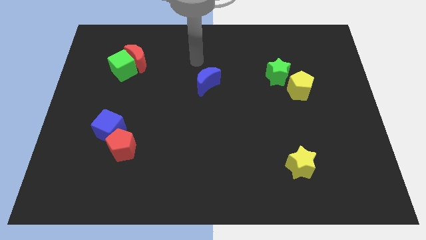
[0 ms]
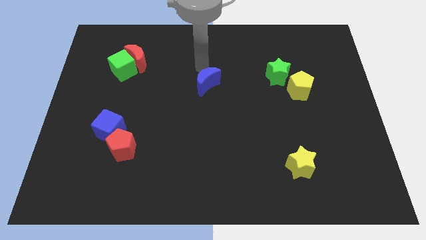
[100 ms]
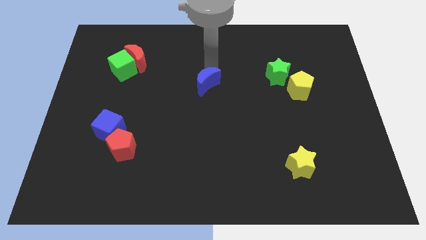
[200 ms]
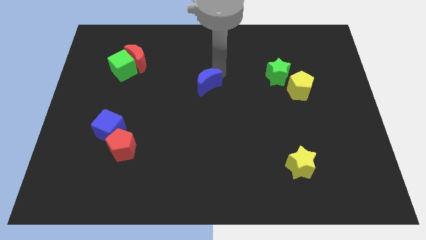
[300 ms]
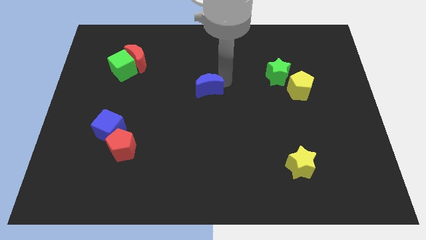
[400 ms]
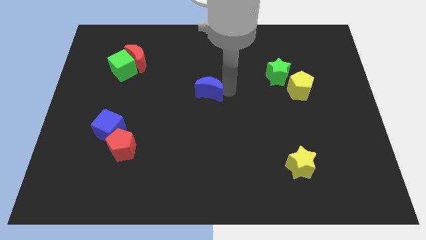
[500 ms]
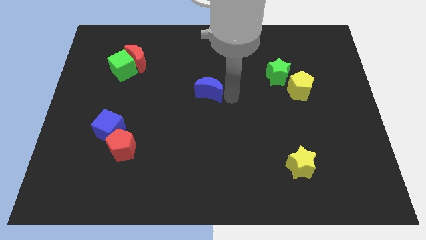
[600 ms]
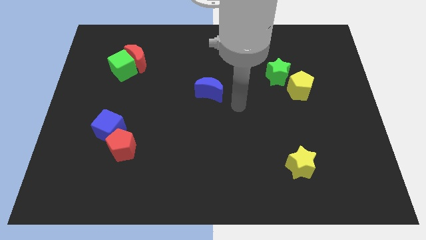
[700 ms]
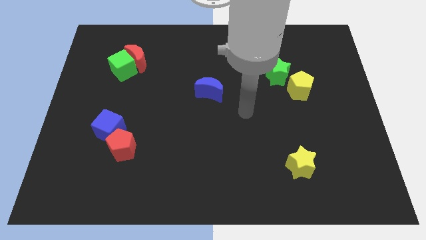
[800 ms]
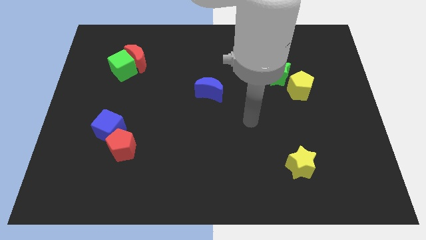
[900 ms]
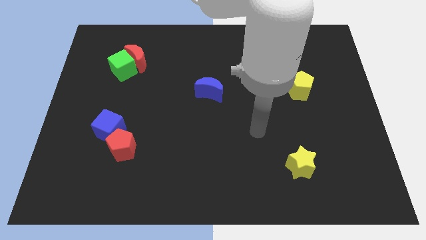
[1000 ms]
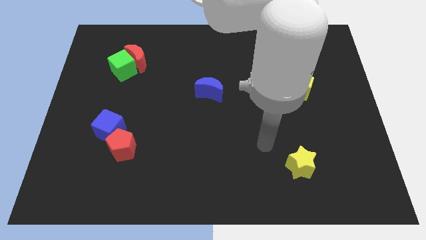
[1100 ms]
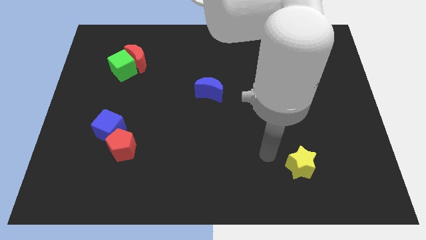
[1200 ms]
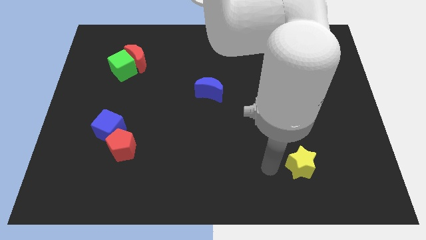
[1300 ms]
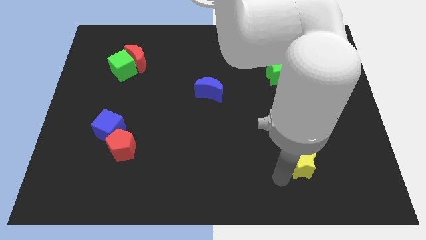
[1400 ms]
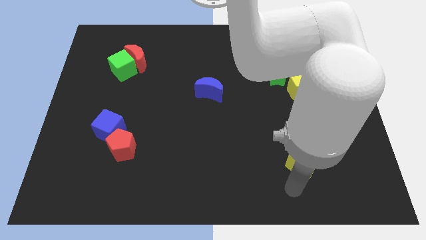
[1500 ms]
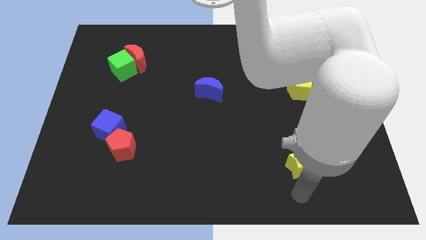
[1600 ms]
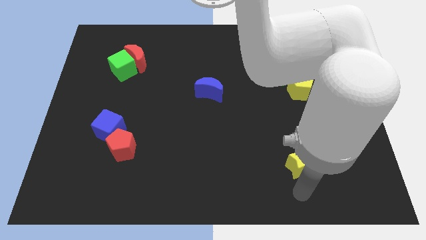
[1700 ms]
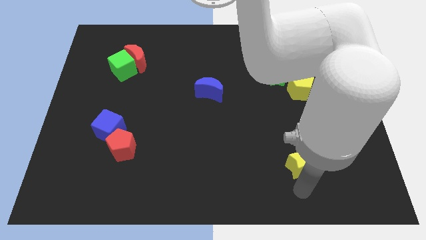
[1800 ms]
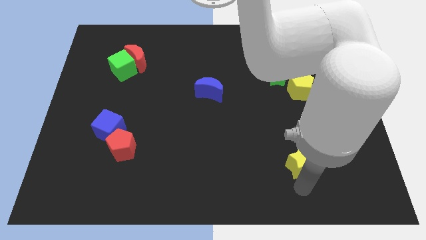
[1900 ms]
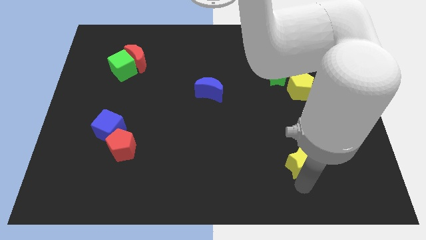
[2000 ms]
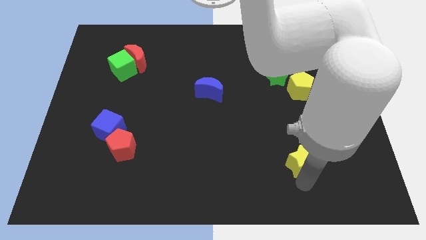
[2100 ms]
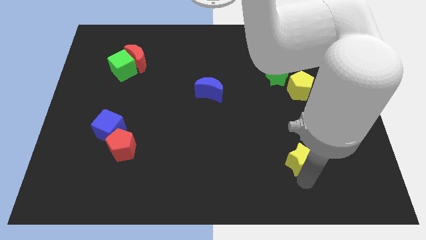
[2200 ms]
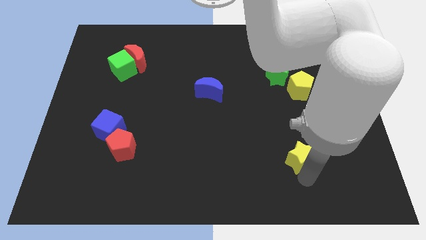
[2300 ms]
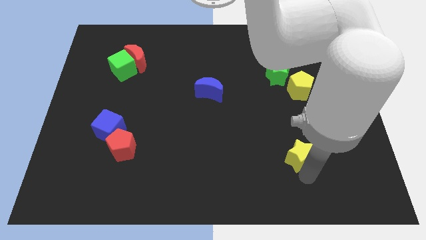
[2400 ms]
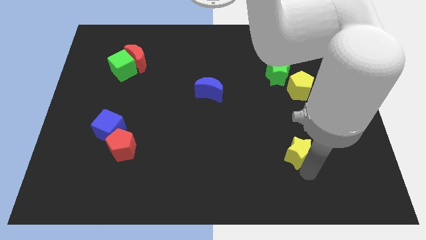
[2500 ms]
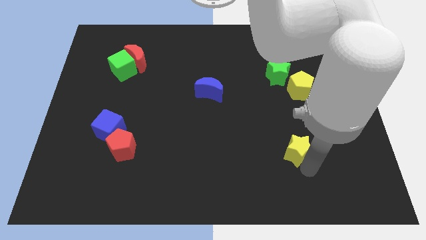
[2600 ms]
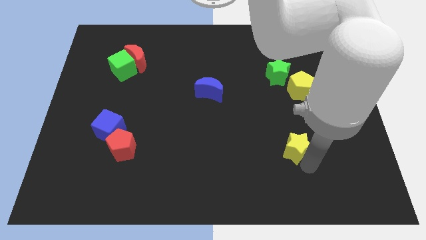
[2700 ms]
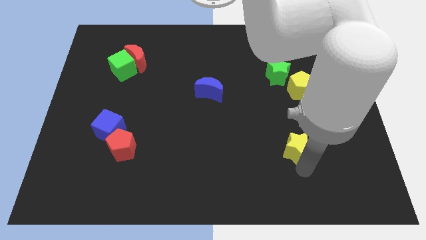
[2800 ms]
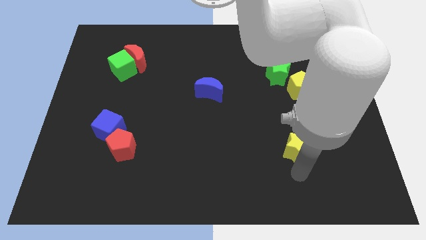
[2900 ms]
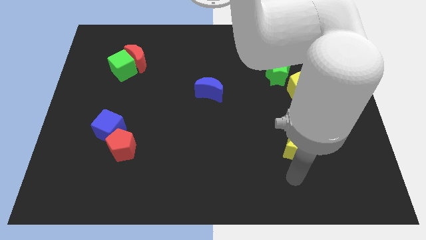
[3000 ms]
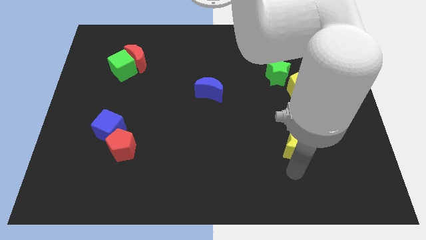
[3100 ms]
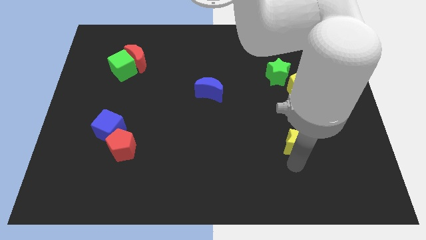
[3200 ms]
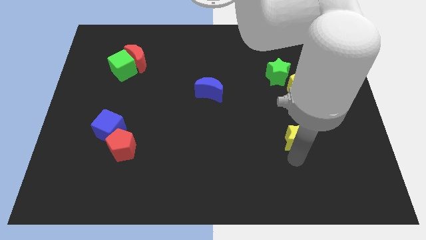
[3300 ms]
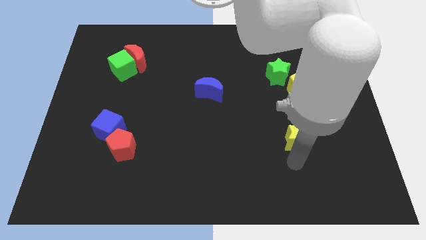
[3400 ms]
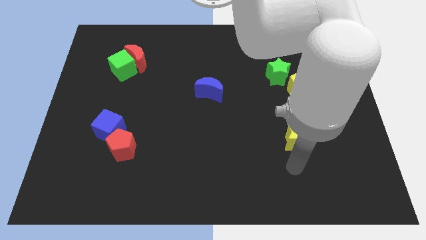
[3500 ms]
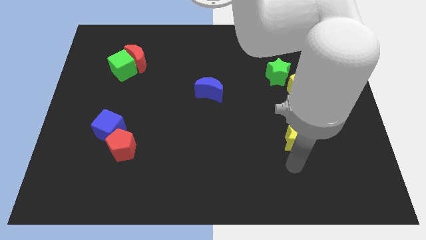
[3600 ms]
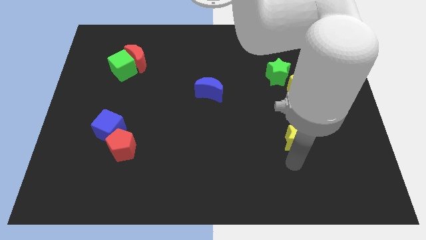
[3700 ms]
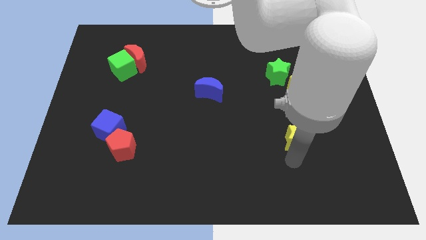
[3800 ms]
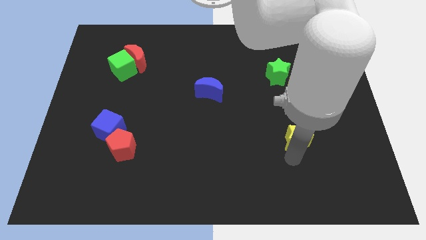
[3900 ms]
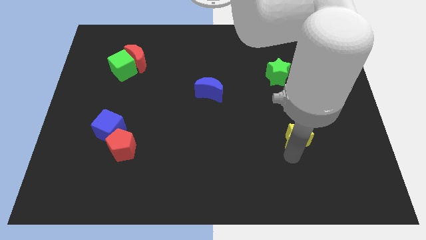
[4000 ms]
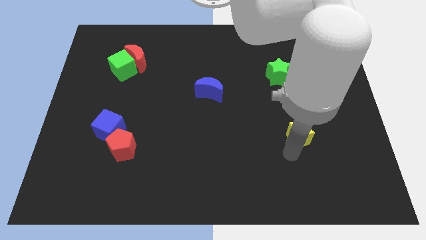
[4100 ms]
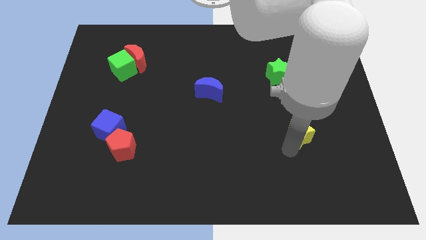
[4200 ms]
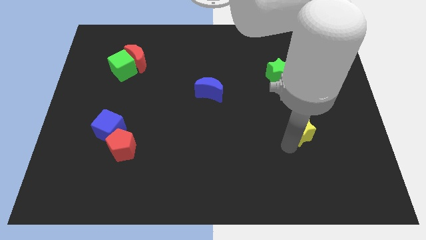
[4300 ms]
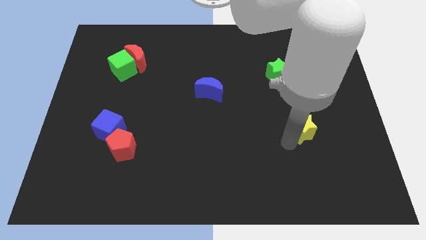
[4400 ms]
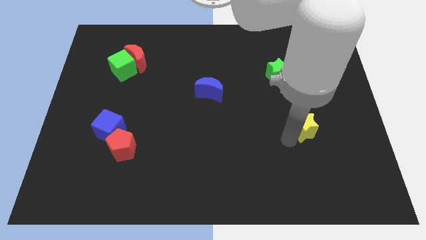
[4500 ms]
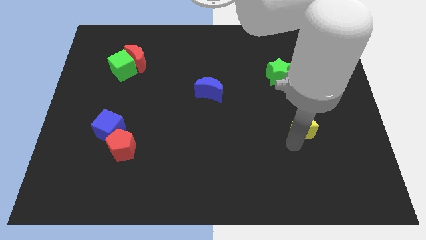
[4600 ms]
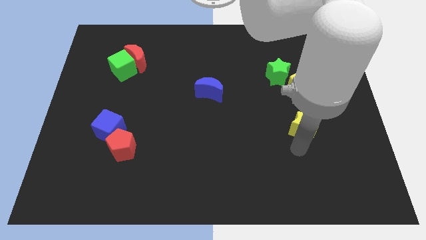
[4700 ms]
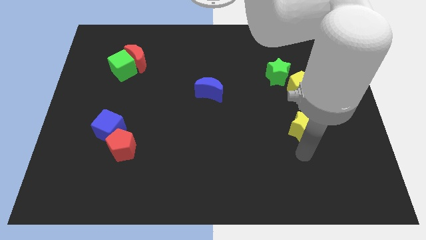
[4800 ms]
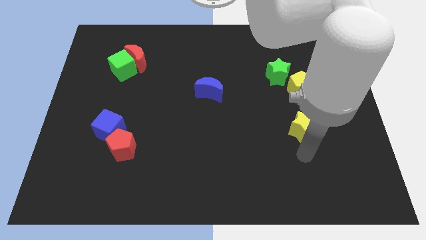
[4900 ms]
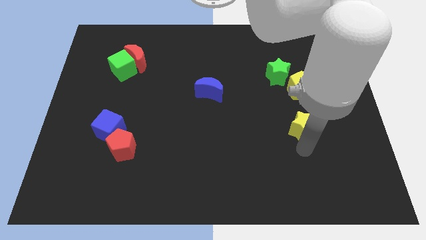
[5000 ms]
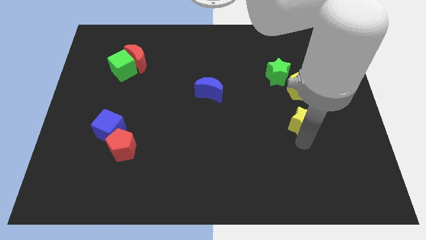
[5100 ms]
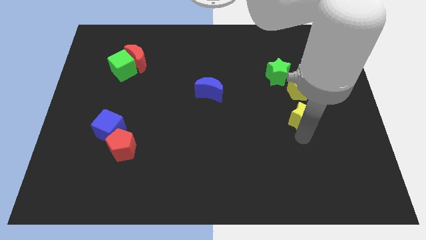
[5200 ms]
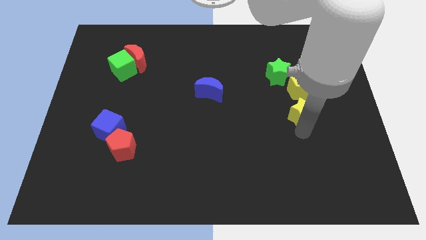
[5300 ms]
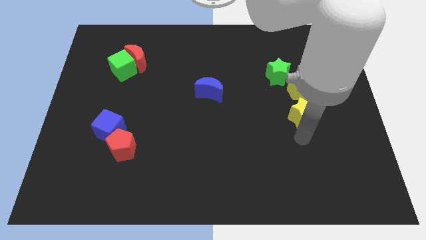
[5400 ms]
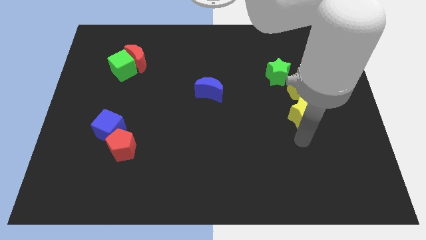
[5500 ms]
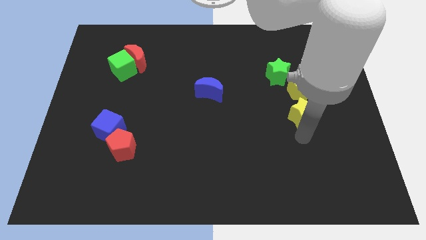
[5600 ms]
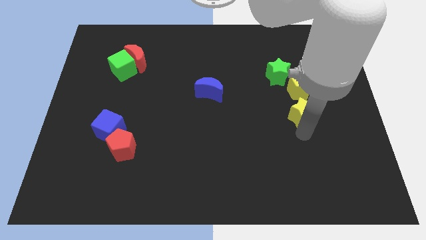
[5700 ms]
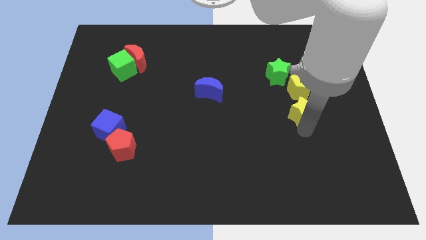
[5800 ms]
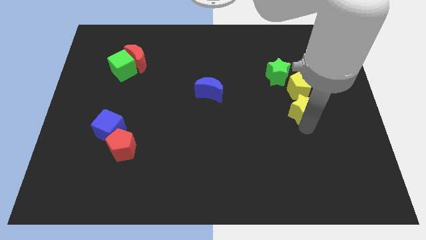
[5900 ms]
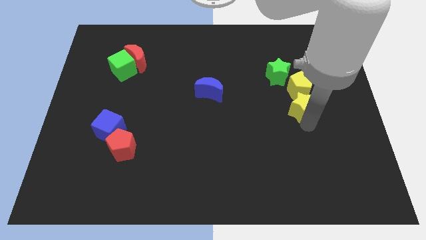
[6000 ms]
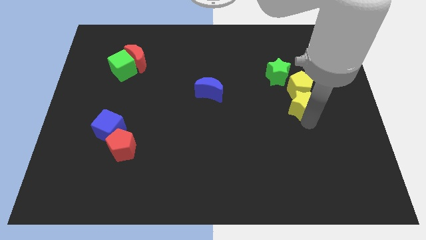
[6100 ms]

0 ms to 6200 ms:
put the yellow star close to the yellow pentagon

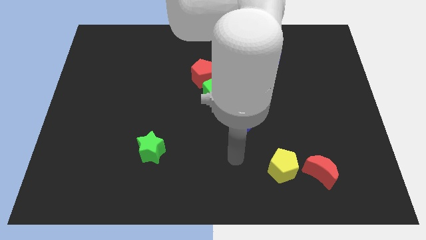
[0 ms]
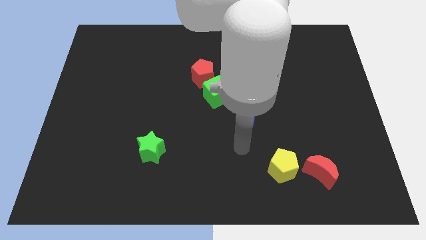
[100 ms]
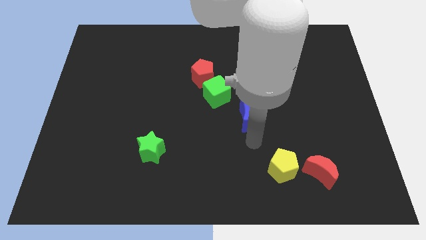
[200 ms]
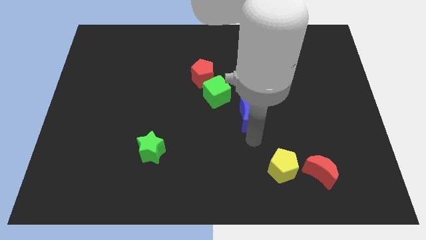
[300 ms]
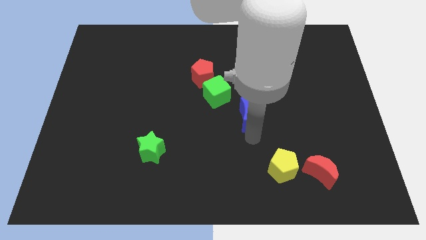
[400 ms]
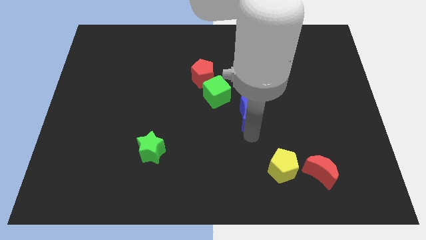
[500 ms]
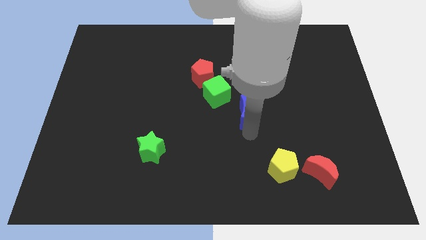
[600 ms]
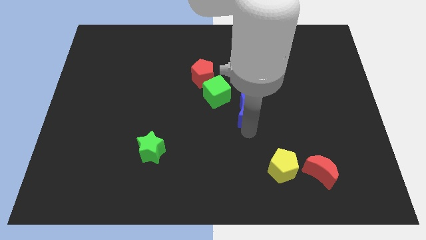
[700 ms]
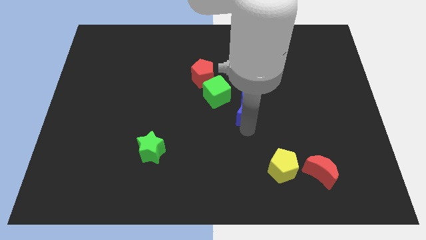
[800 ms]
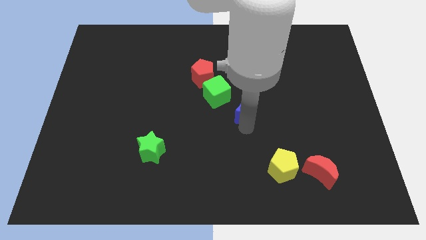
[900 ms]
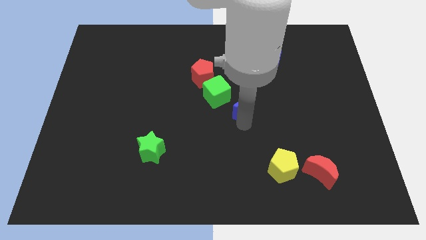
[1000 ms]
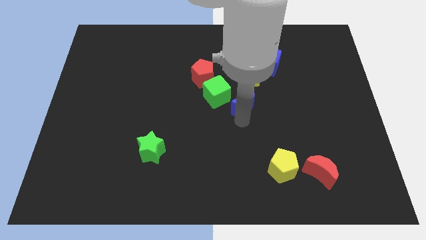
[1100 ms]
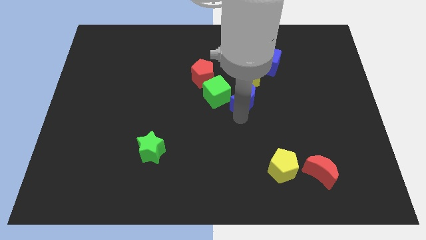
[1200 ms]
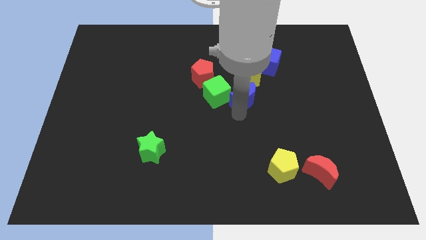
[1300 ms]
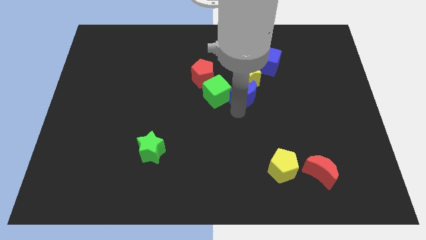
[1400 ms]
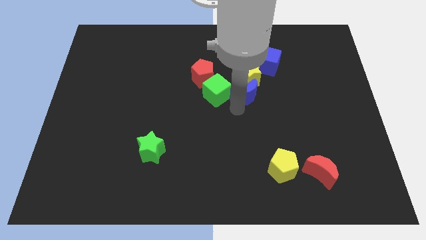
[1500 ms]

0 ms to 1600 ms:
push the blue moon to the yellow star

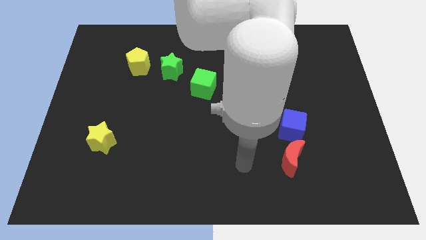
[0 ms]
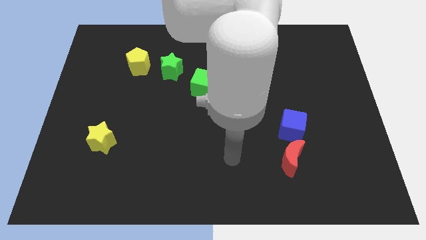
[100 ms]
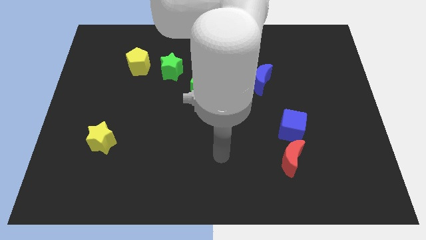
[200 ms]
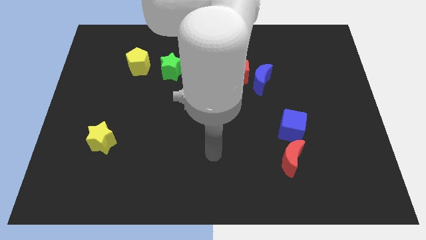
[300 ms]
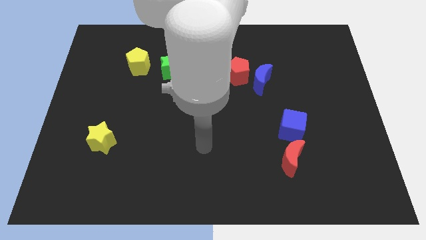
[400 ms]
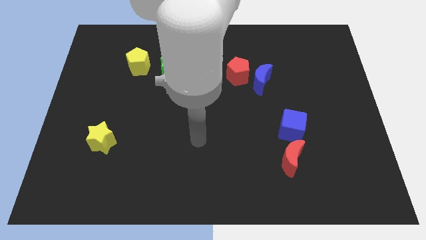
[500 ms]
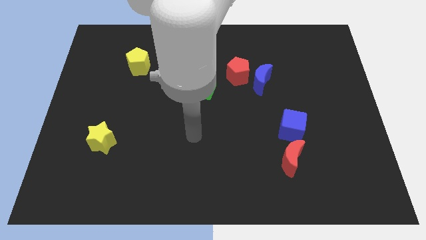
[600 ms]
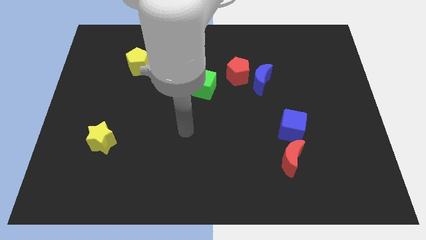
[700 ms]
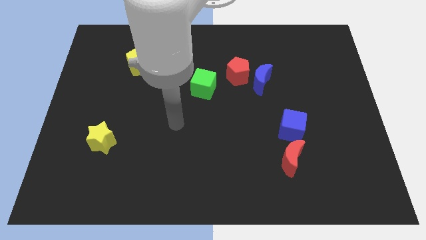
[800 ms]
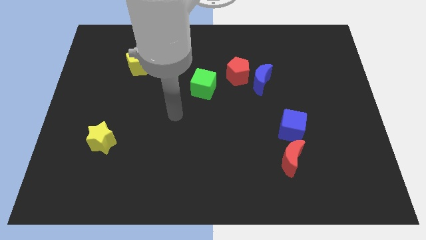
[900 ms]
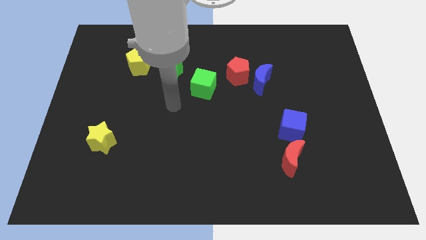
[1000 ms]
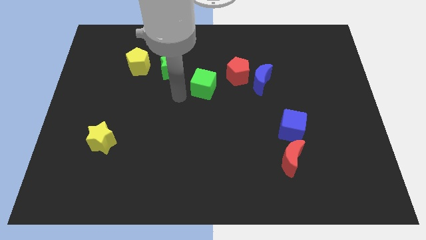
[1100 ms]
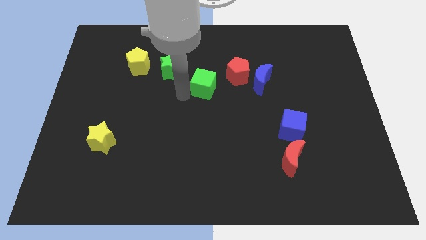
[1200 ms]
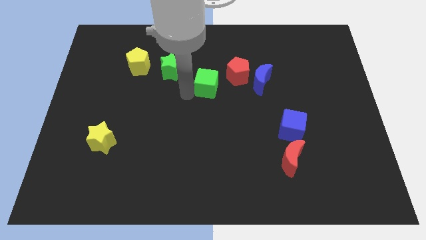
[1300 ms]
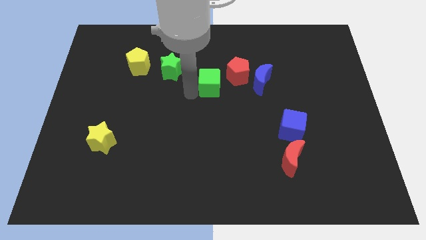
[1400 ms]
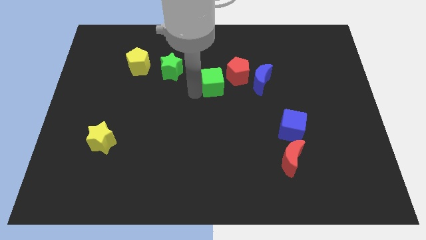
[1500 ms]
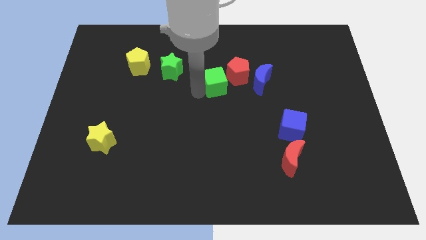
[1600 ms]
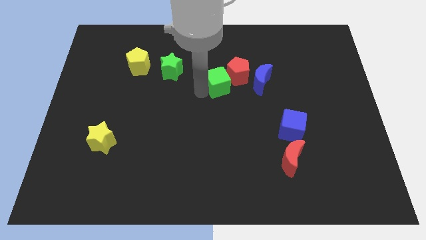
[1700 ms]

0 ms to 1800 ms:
push the green cube to the red pentagon
